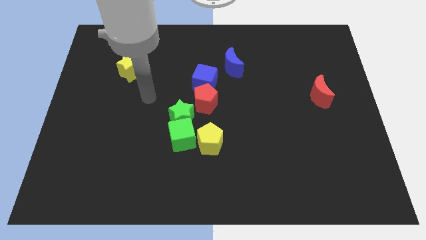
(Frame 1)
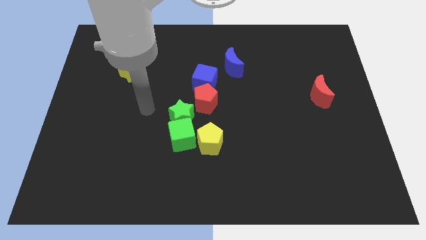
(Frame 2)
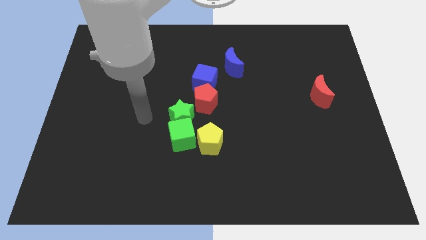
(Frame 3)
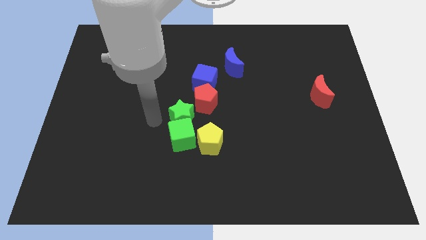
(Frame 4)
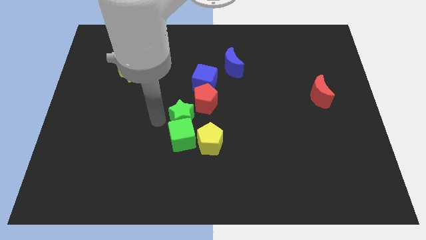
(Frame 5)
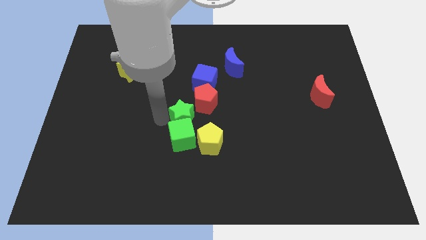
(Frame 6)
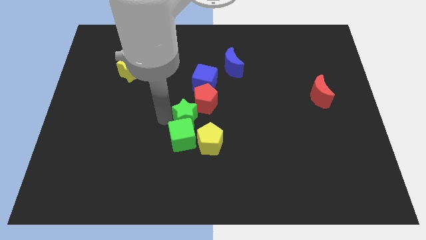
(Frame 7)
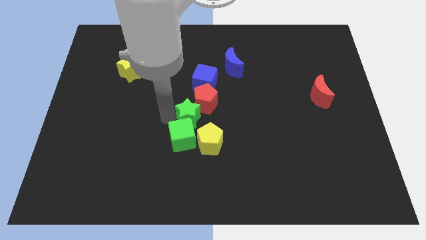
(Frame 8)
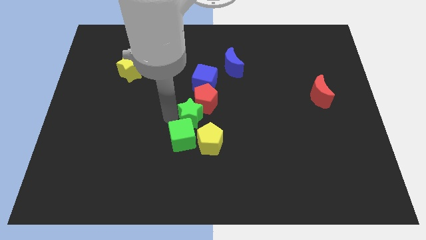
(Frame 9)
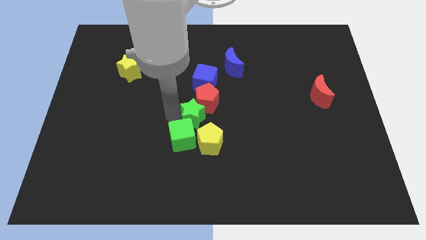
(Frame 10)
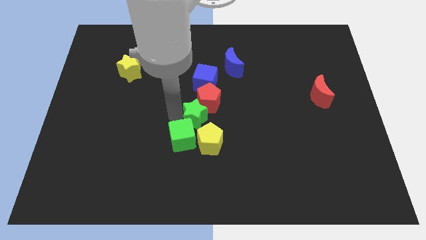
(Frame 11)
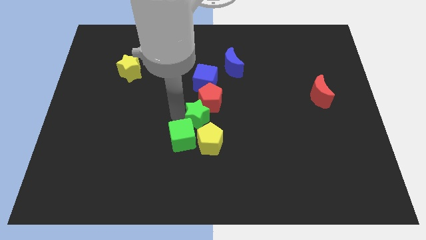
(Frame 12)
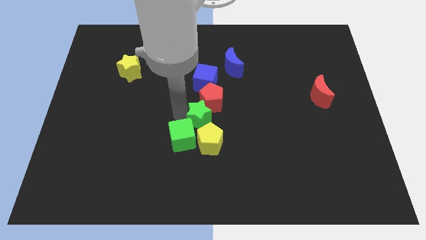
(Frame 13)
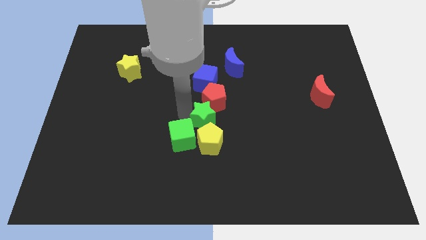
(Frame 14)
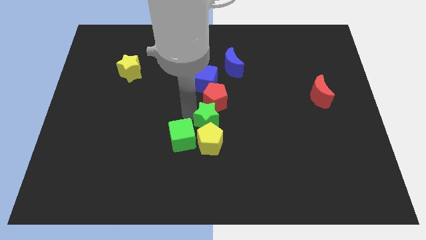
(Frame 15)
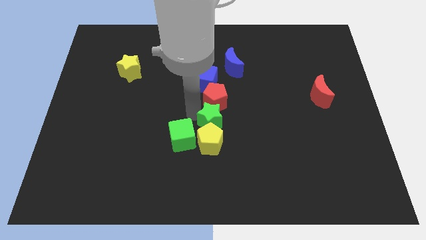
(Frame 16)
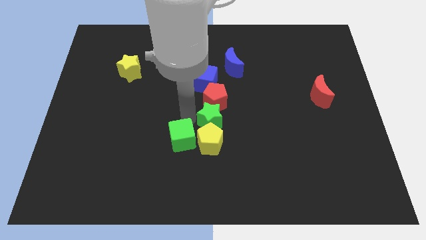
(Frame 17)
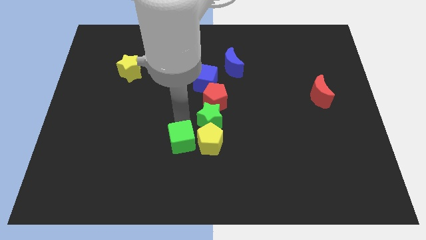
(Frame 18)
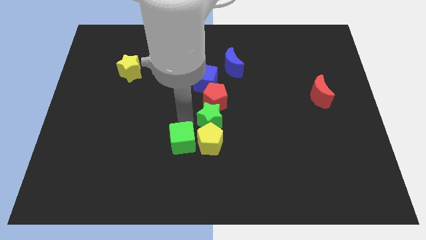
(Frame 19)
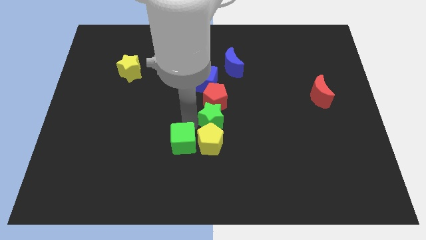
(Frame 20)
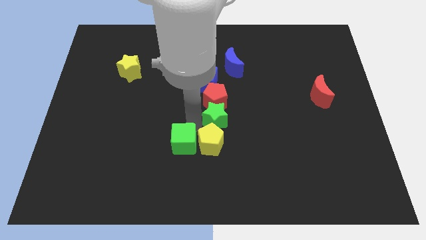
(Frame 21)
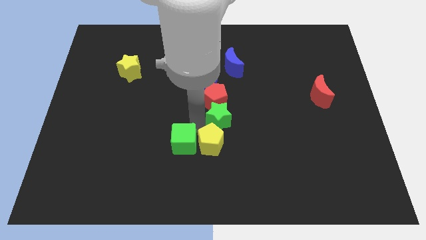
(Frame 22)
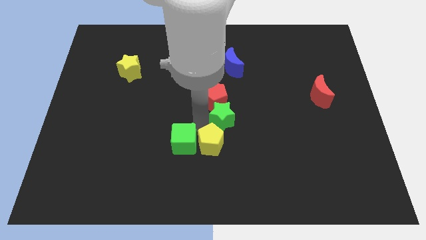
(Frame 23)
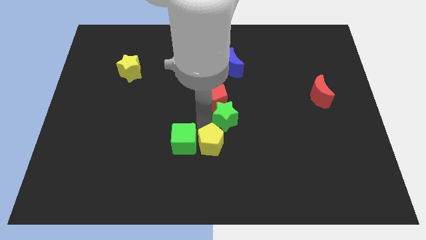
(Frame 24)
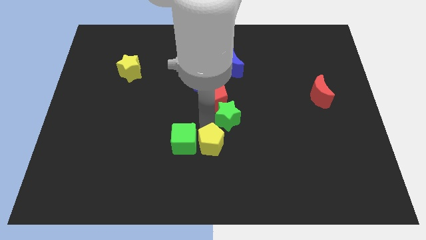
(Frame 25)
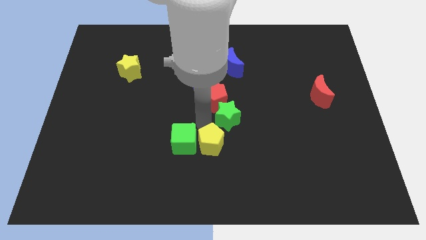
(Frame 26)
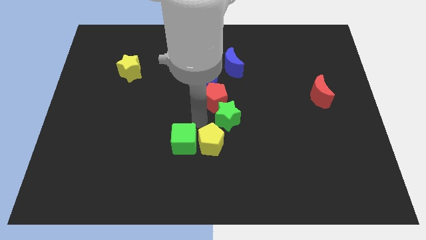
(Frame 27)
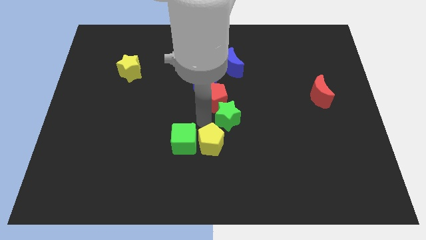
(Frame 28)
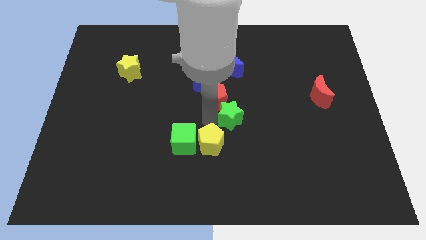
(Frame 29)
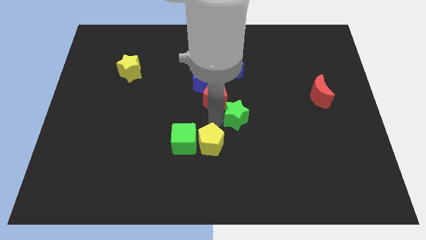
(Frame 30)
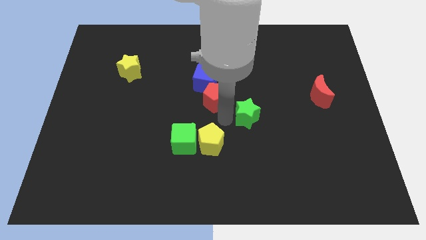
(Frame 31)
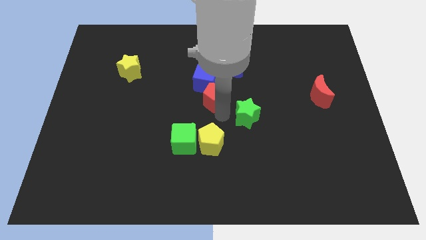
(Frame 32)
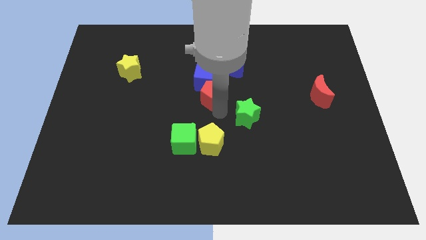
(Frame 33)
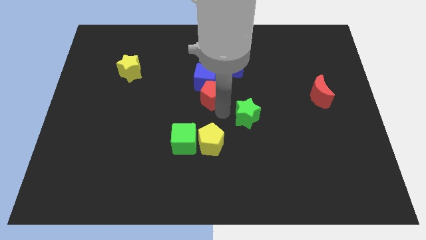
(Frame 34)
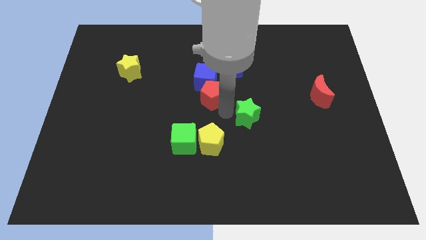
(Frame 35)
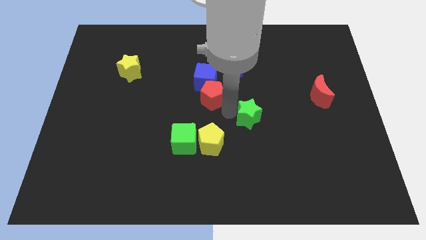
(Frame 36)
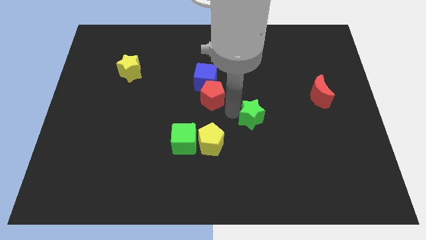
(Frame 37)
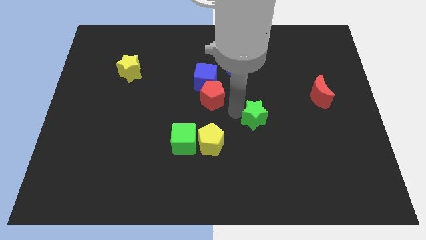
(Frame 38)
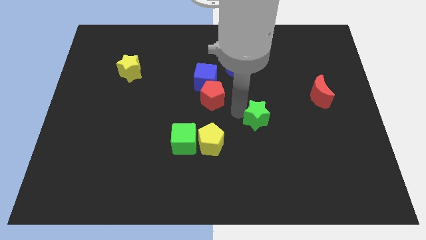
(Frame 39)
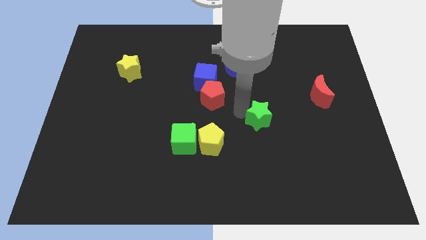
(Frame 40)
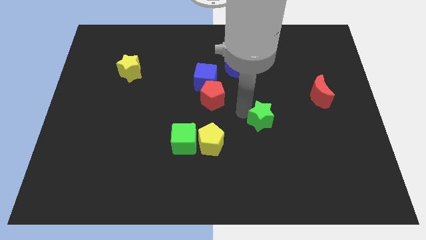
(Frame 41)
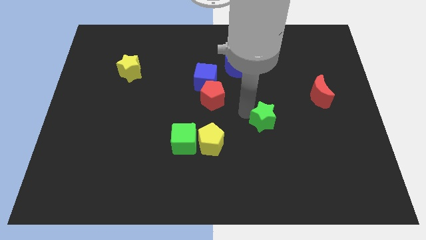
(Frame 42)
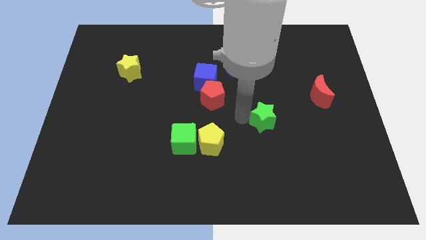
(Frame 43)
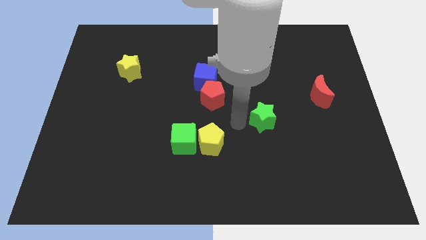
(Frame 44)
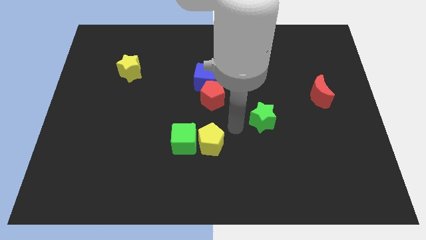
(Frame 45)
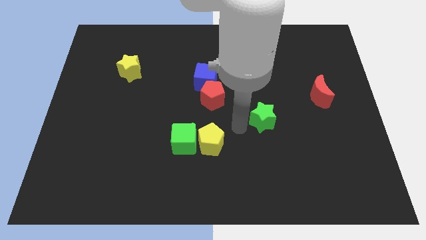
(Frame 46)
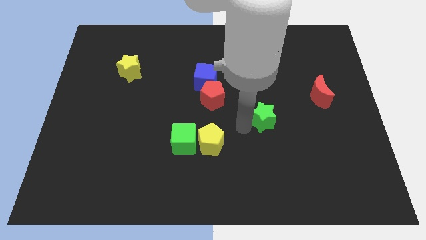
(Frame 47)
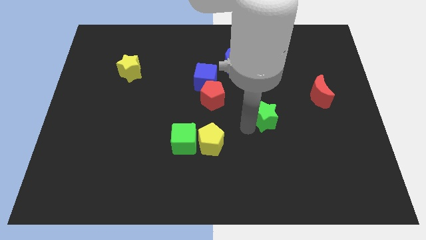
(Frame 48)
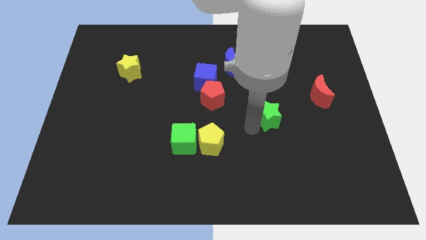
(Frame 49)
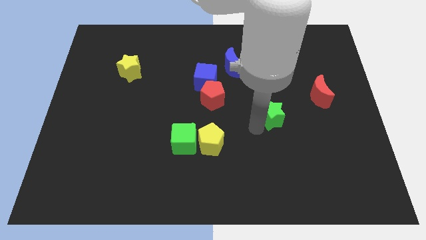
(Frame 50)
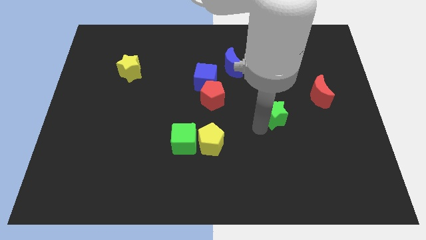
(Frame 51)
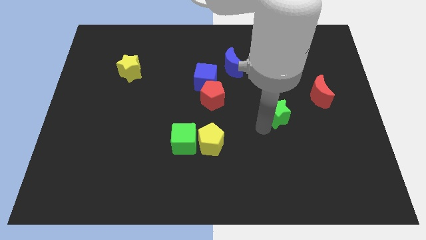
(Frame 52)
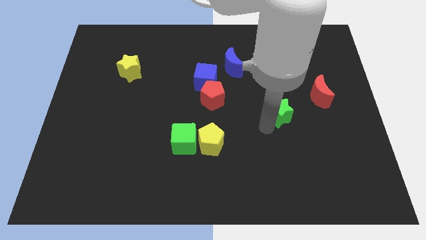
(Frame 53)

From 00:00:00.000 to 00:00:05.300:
put the green star to the bottom left side of the red moon

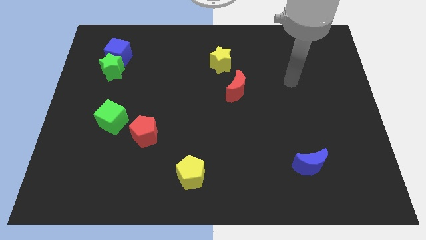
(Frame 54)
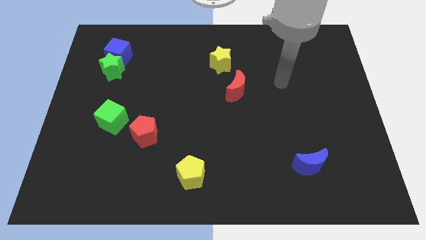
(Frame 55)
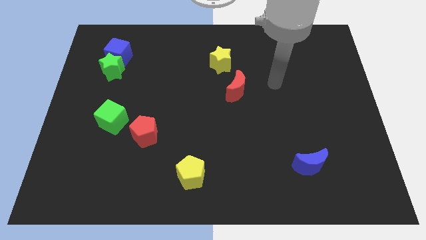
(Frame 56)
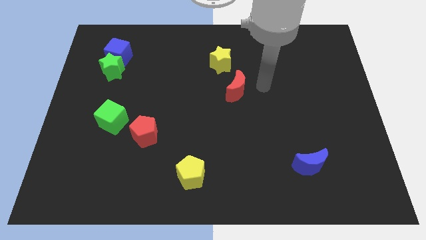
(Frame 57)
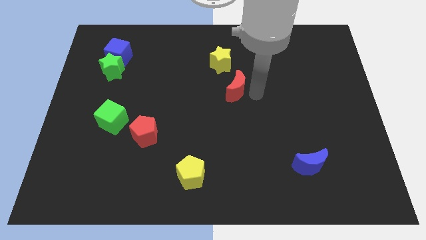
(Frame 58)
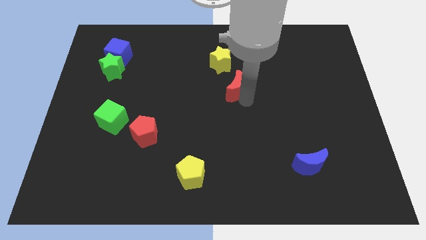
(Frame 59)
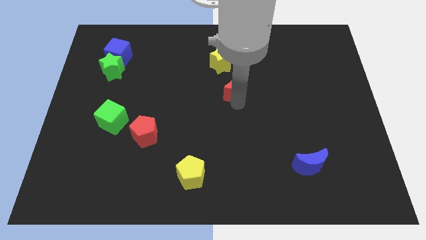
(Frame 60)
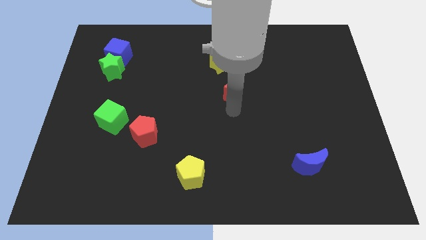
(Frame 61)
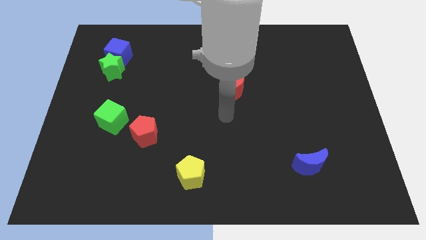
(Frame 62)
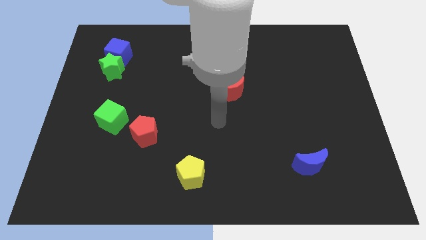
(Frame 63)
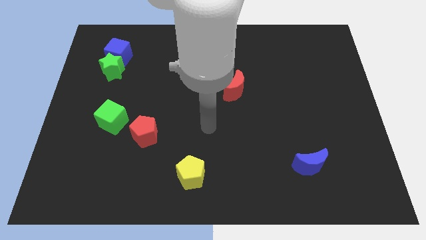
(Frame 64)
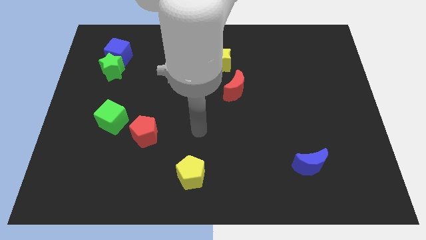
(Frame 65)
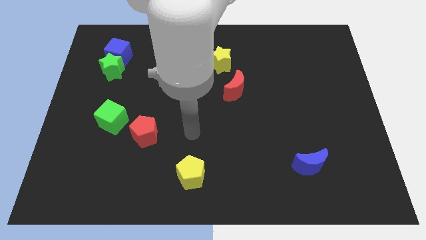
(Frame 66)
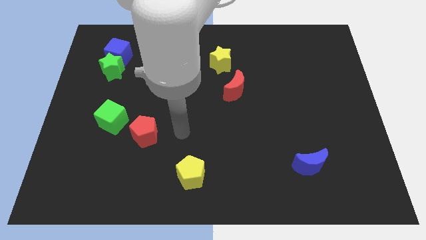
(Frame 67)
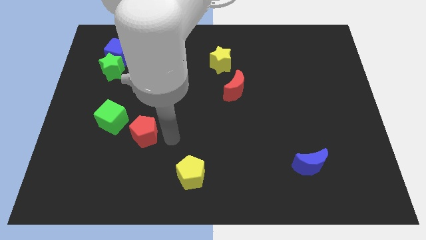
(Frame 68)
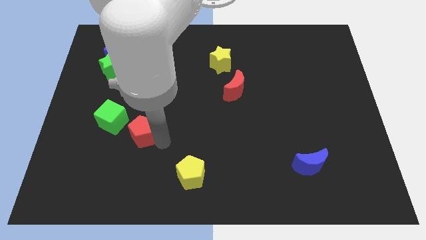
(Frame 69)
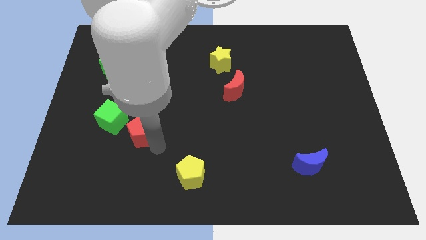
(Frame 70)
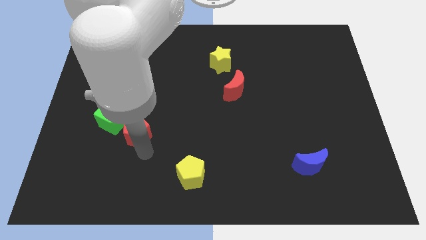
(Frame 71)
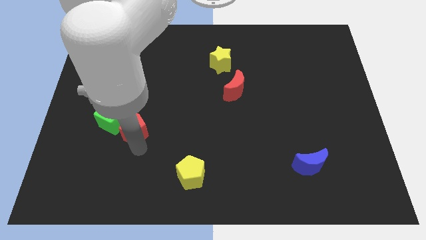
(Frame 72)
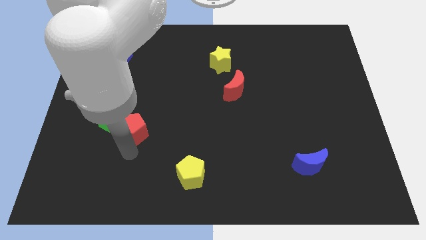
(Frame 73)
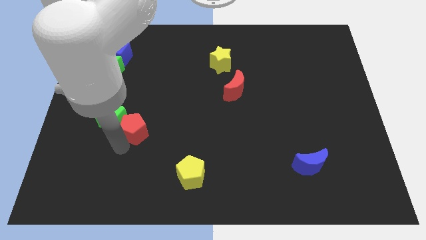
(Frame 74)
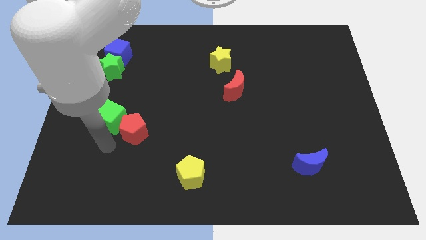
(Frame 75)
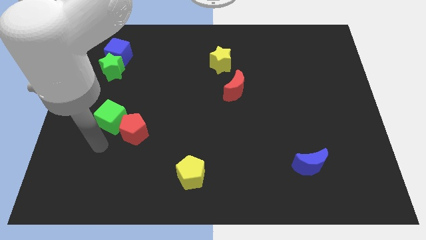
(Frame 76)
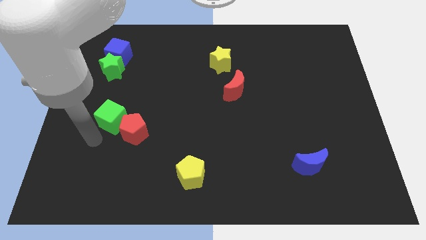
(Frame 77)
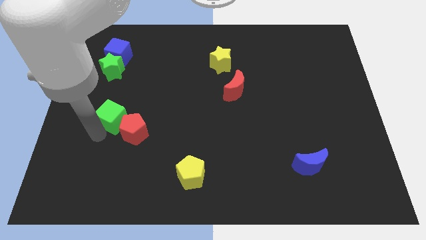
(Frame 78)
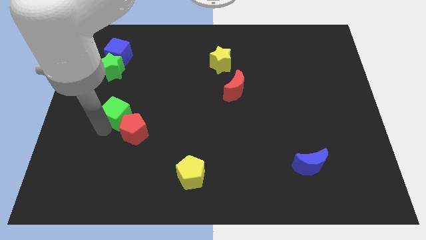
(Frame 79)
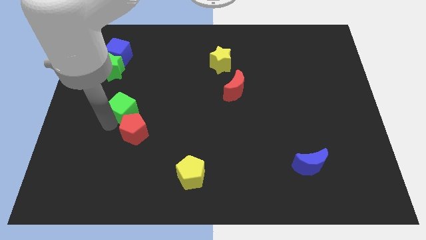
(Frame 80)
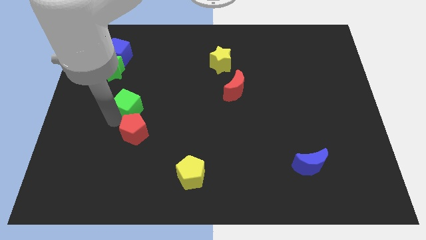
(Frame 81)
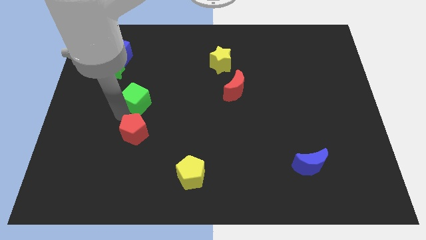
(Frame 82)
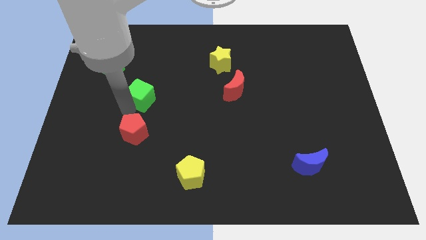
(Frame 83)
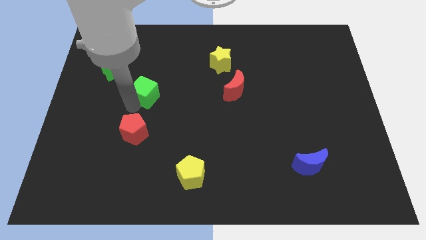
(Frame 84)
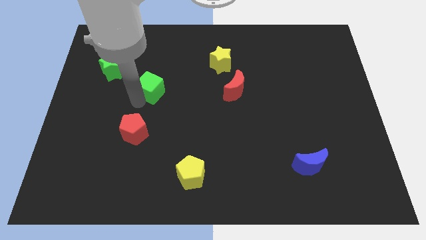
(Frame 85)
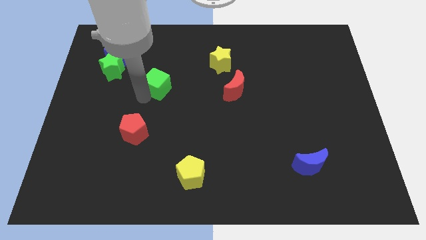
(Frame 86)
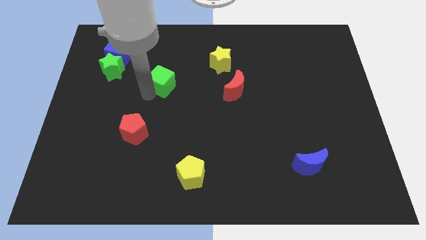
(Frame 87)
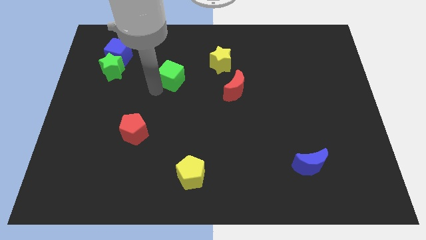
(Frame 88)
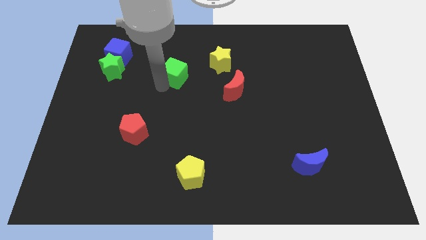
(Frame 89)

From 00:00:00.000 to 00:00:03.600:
push the green cube to the left side of the yellow star
